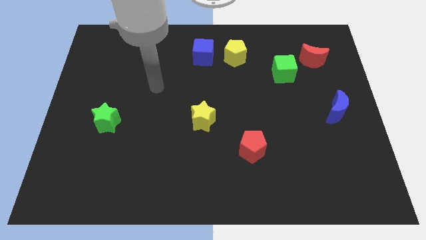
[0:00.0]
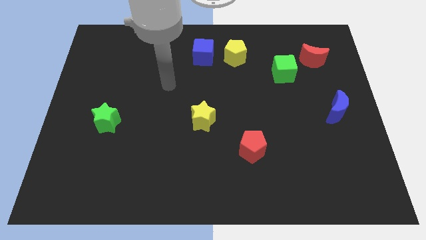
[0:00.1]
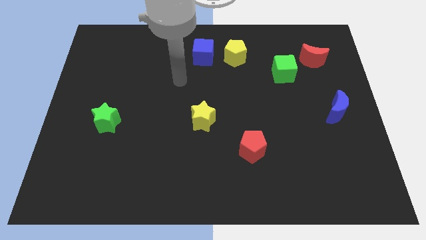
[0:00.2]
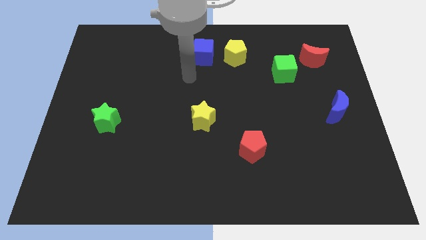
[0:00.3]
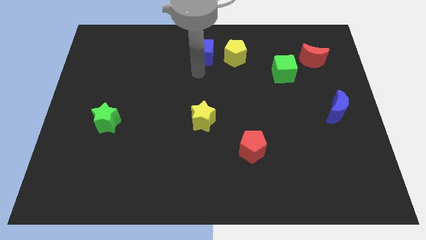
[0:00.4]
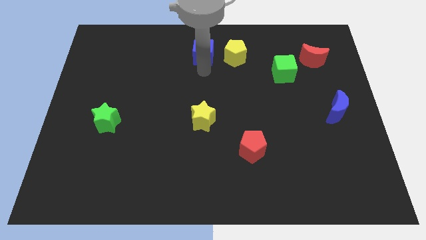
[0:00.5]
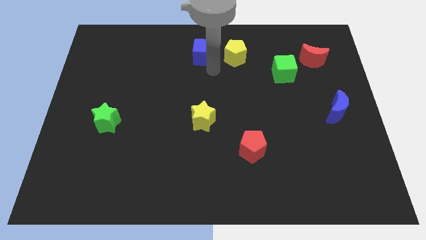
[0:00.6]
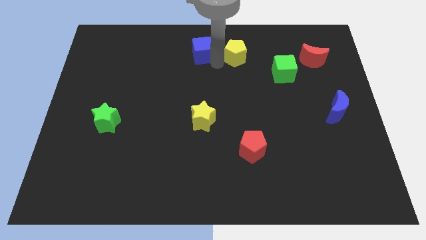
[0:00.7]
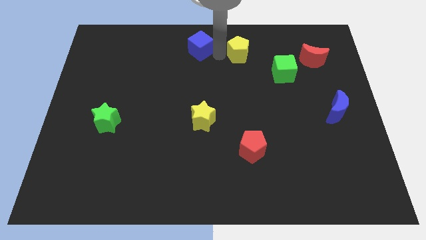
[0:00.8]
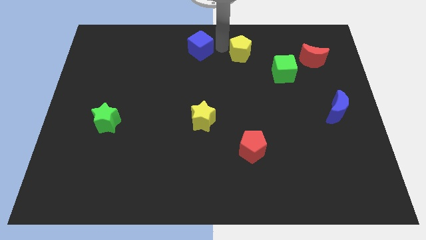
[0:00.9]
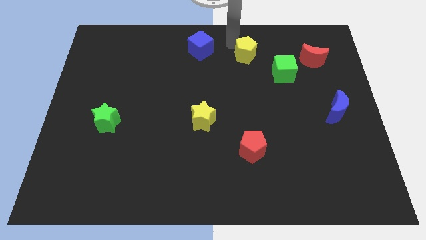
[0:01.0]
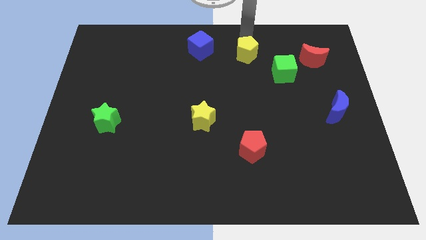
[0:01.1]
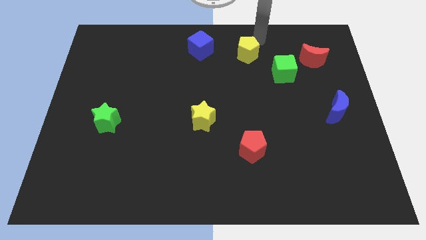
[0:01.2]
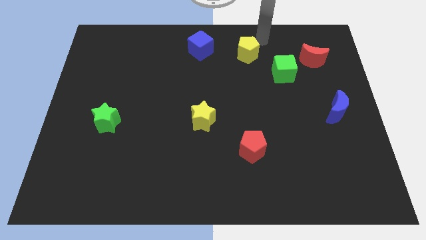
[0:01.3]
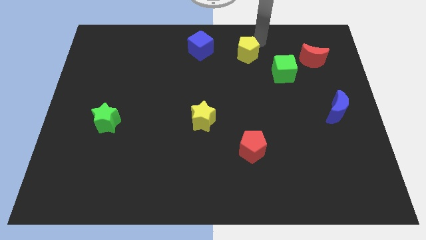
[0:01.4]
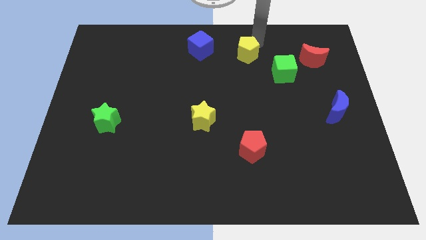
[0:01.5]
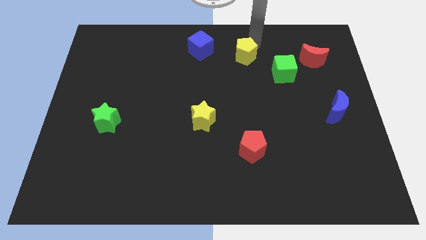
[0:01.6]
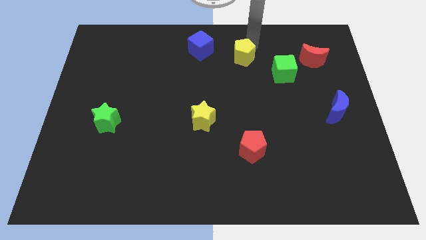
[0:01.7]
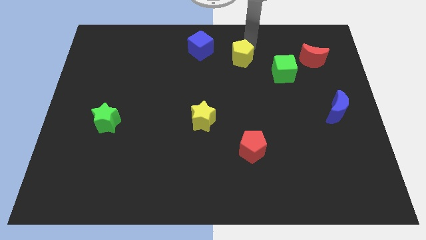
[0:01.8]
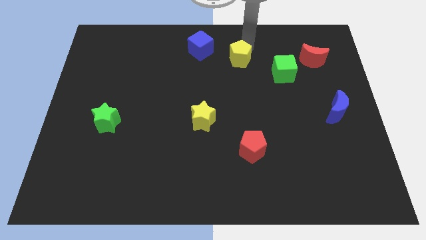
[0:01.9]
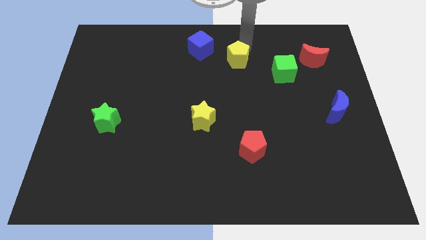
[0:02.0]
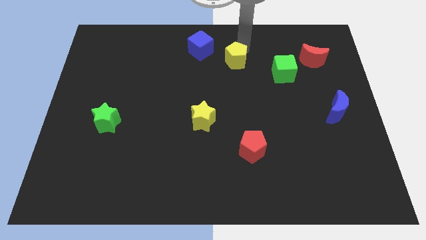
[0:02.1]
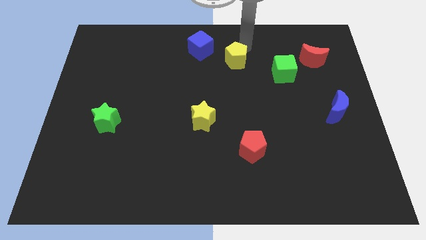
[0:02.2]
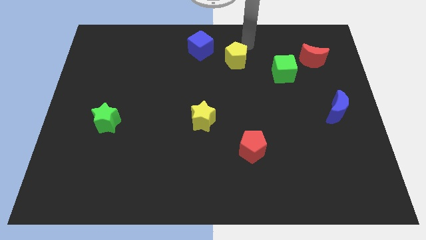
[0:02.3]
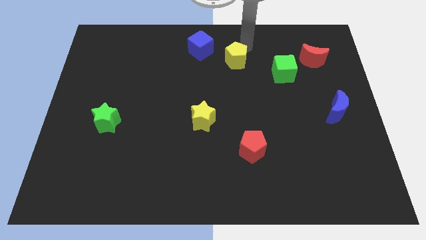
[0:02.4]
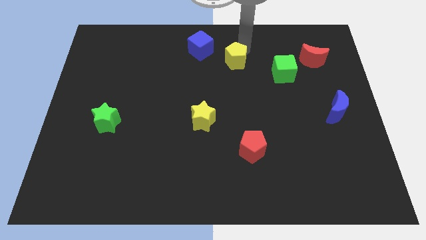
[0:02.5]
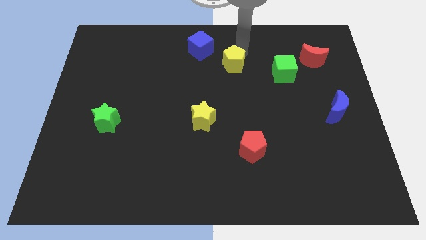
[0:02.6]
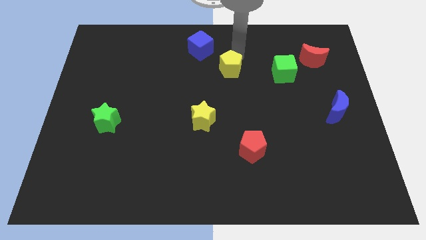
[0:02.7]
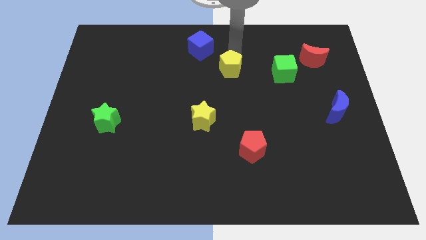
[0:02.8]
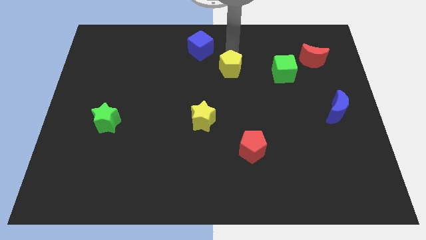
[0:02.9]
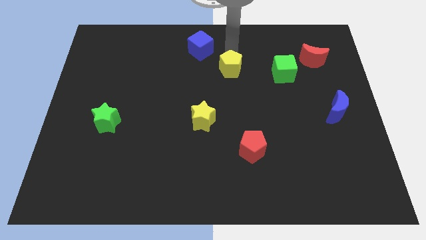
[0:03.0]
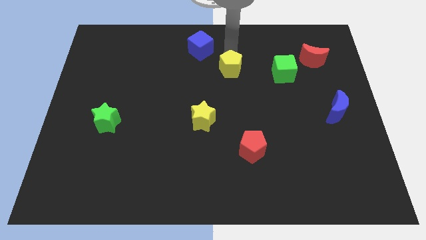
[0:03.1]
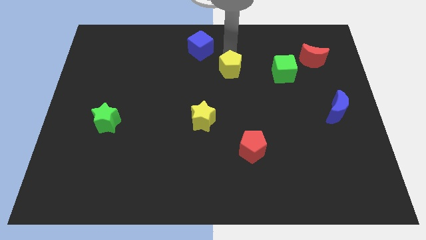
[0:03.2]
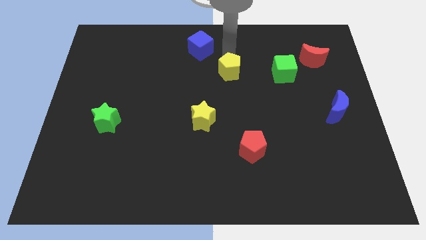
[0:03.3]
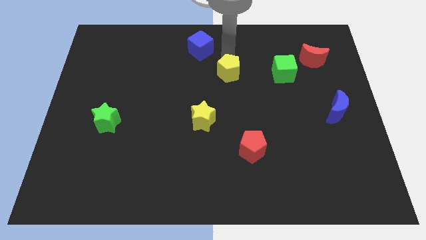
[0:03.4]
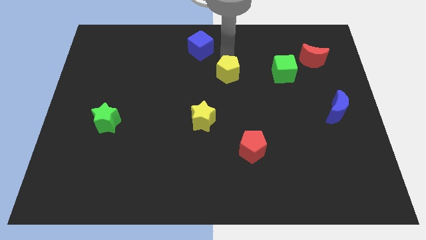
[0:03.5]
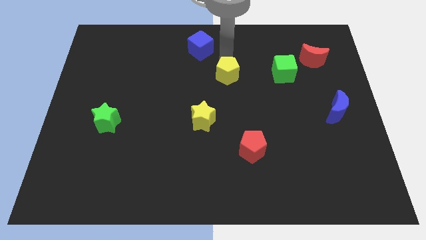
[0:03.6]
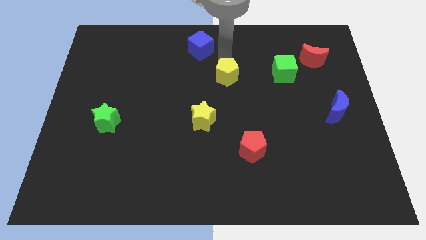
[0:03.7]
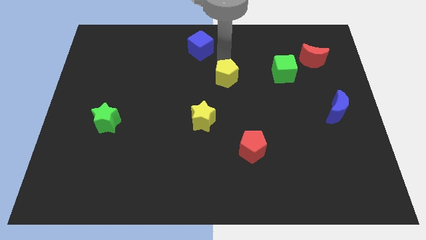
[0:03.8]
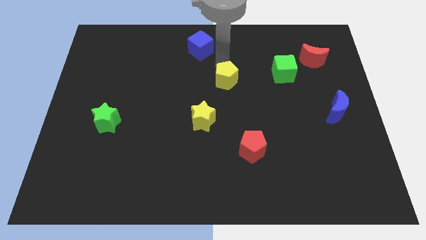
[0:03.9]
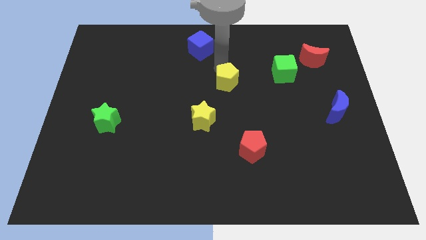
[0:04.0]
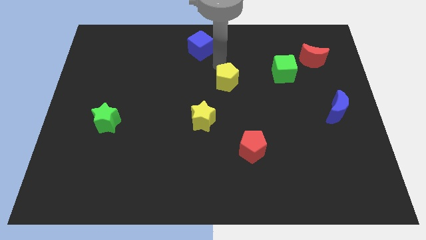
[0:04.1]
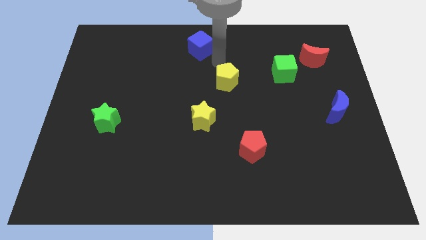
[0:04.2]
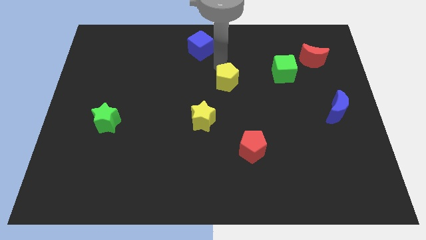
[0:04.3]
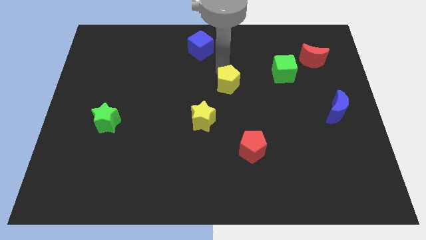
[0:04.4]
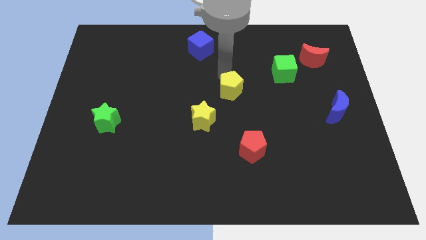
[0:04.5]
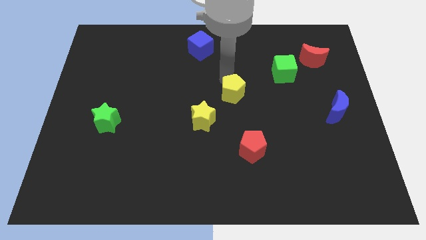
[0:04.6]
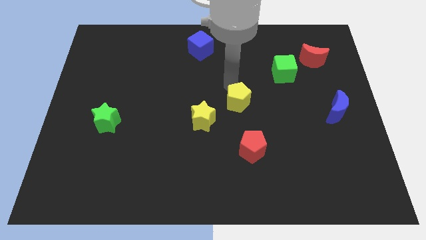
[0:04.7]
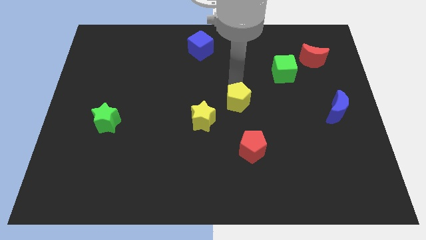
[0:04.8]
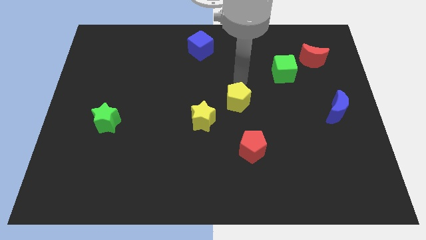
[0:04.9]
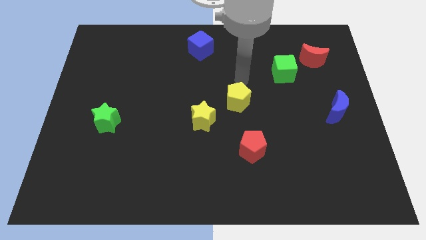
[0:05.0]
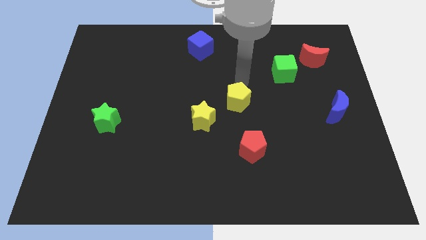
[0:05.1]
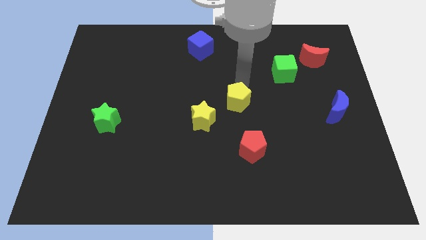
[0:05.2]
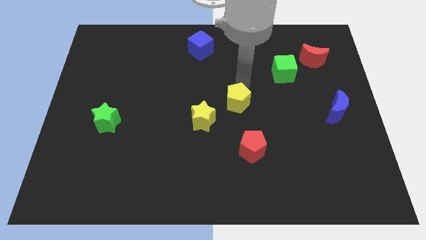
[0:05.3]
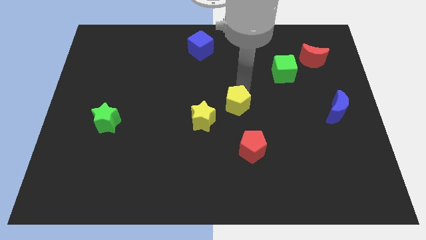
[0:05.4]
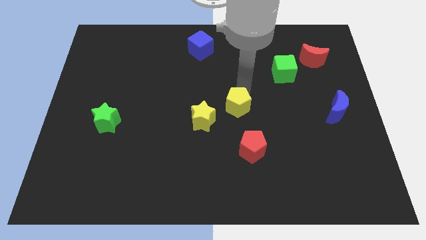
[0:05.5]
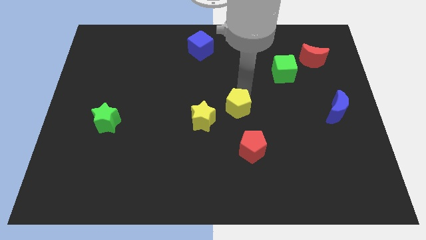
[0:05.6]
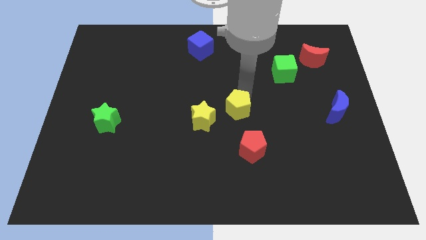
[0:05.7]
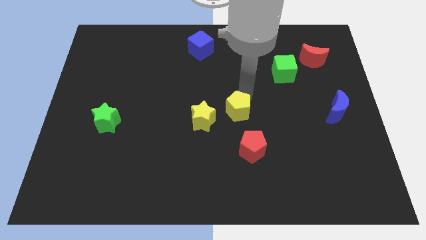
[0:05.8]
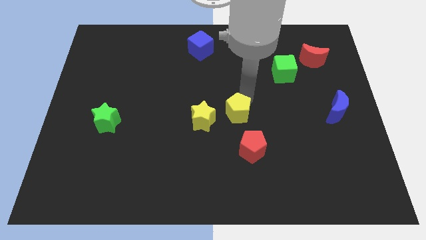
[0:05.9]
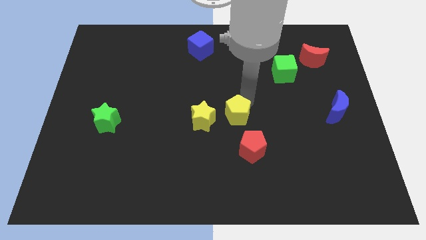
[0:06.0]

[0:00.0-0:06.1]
put the yellow pentagon to the top left of the red pentagon

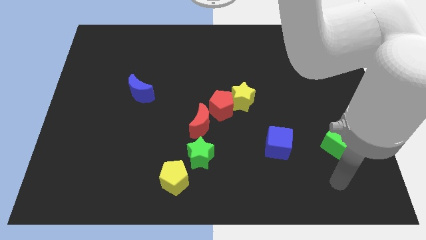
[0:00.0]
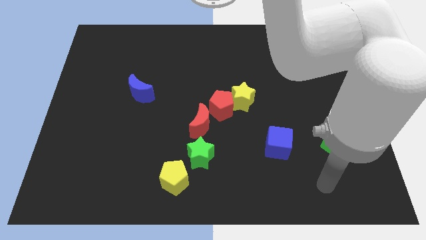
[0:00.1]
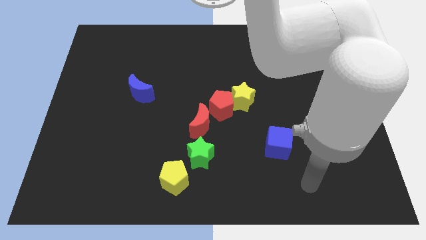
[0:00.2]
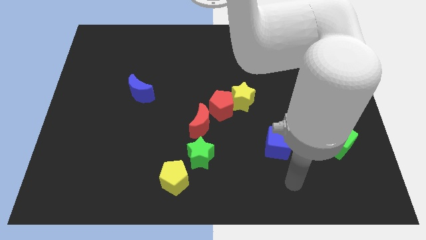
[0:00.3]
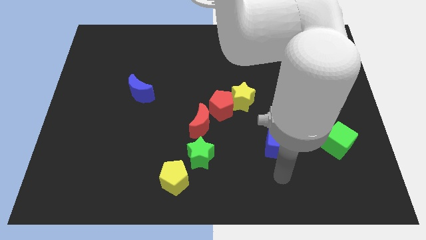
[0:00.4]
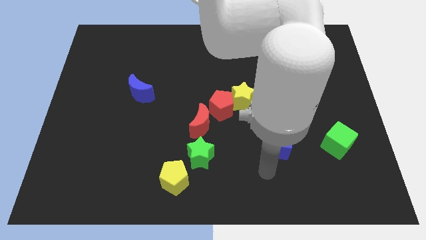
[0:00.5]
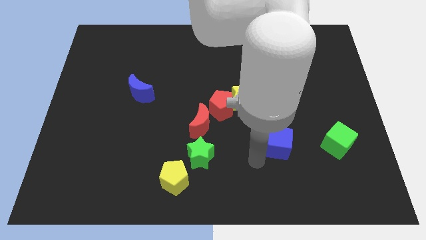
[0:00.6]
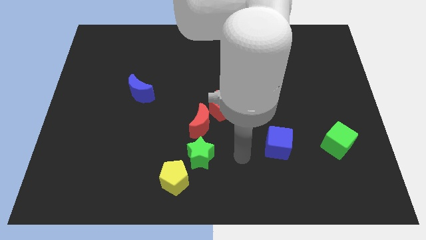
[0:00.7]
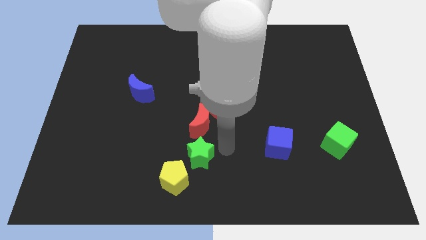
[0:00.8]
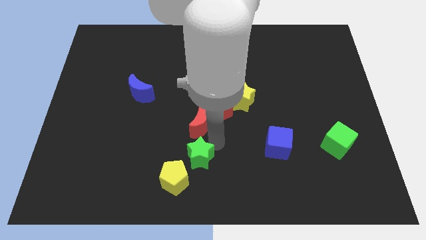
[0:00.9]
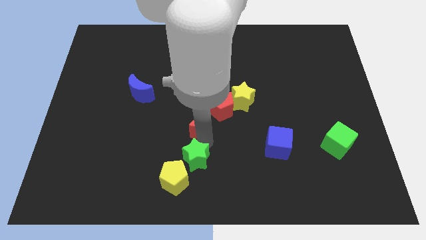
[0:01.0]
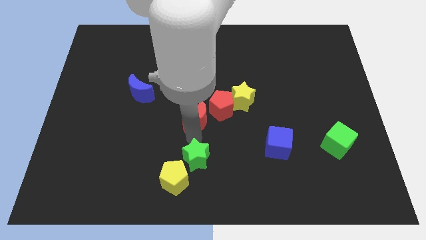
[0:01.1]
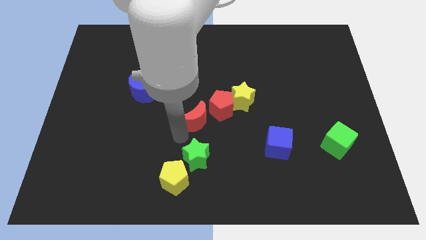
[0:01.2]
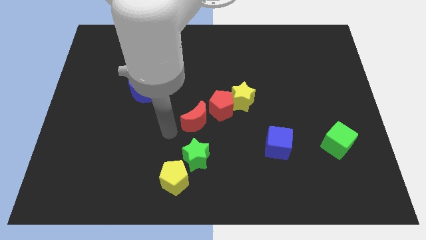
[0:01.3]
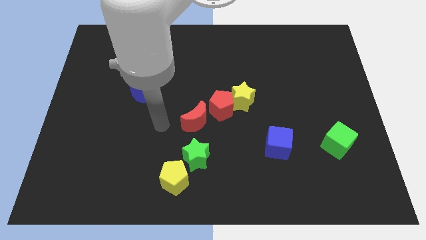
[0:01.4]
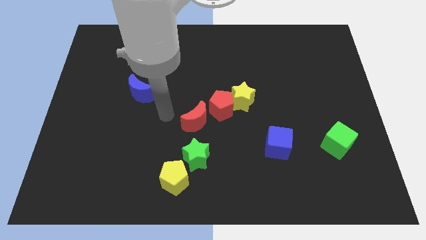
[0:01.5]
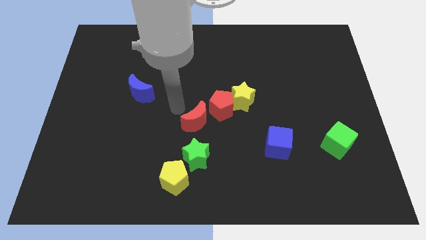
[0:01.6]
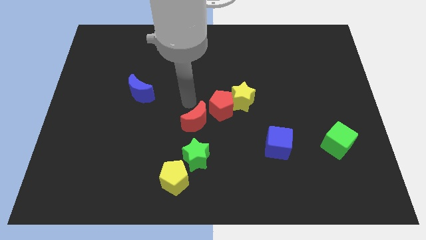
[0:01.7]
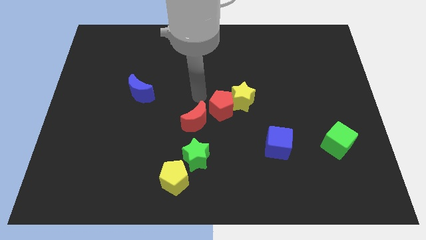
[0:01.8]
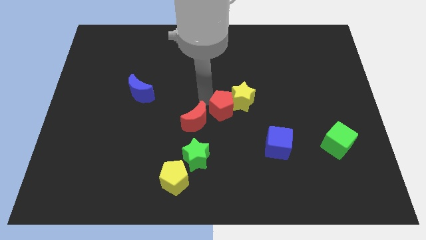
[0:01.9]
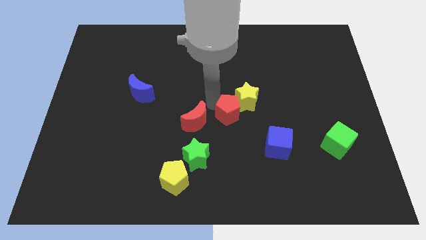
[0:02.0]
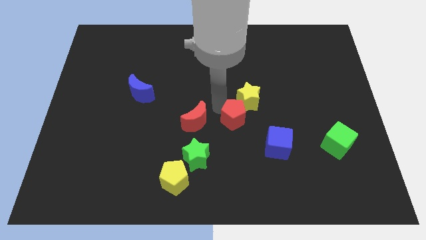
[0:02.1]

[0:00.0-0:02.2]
put the red pentagon to the top left side of the blue cube
